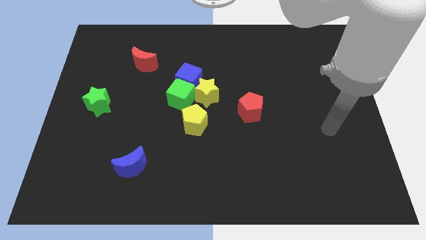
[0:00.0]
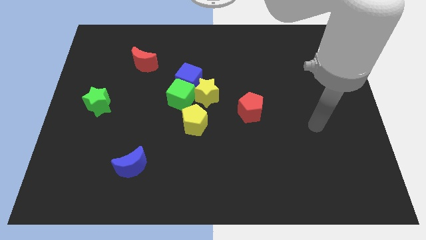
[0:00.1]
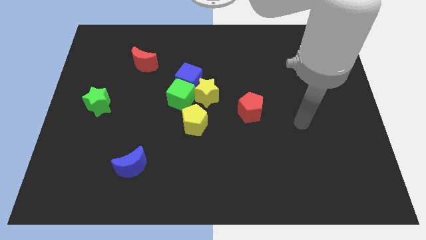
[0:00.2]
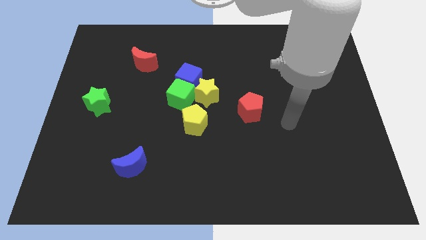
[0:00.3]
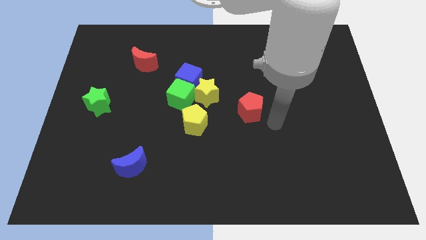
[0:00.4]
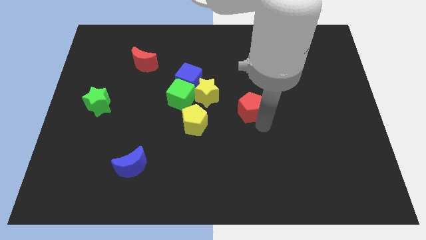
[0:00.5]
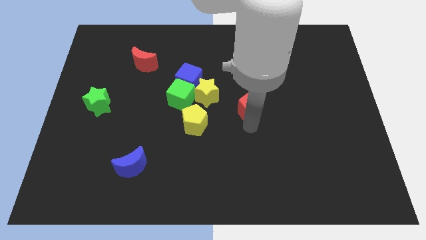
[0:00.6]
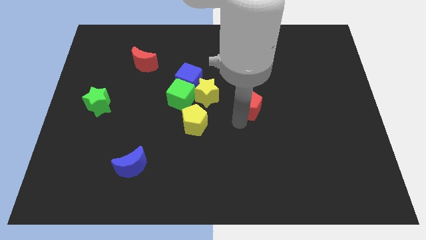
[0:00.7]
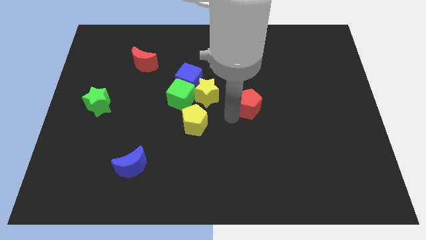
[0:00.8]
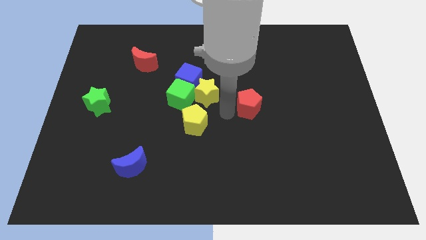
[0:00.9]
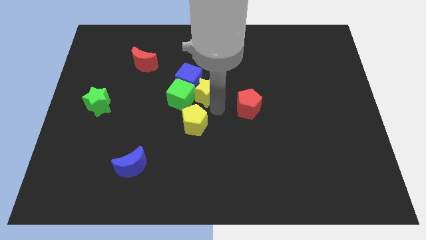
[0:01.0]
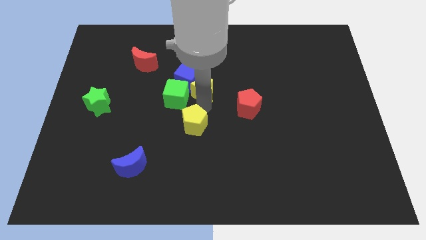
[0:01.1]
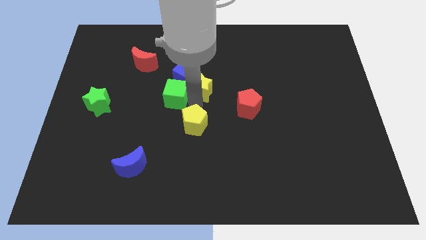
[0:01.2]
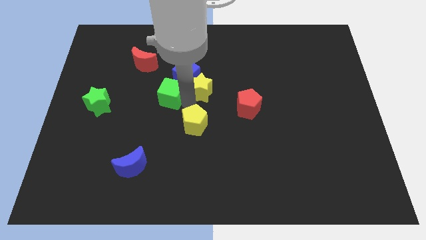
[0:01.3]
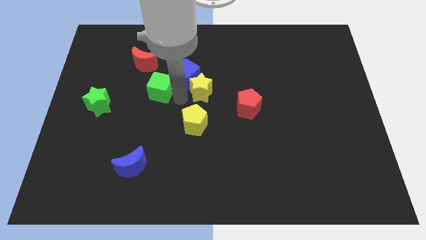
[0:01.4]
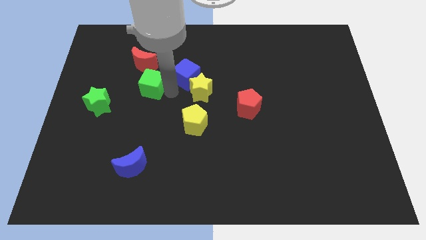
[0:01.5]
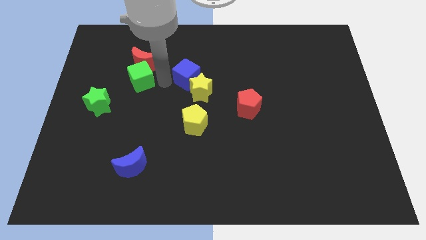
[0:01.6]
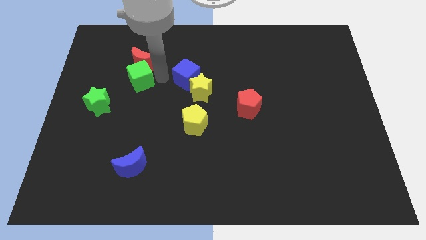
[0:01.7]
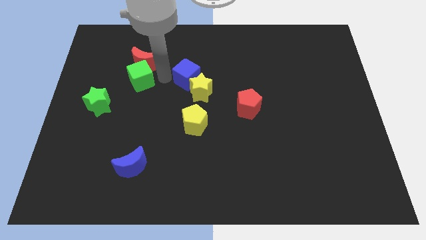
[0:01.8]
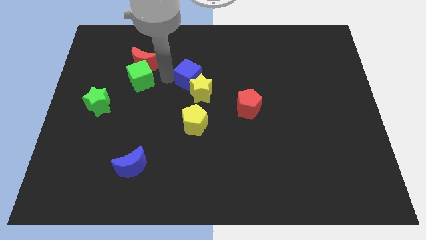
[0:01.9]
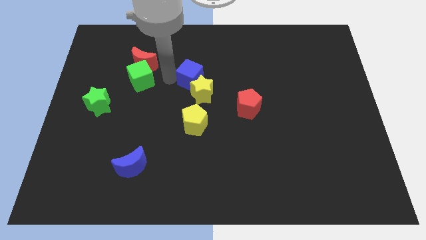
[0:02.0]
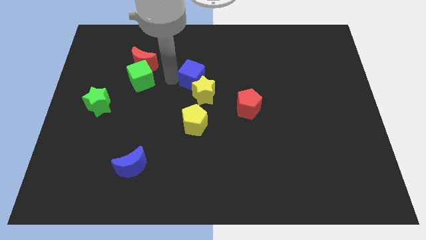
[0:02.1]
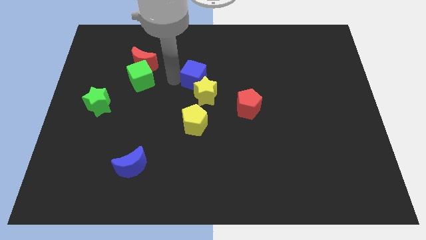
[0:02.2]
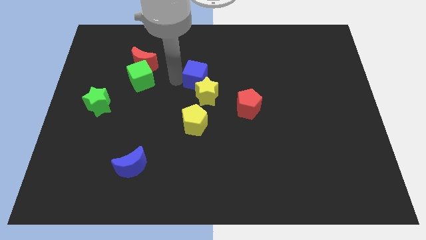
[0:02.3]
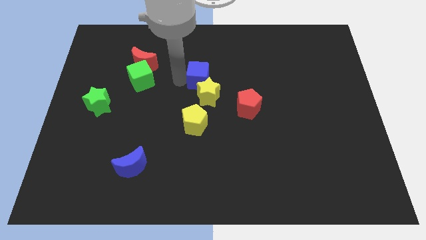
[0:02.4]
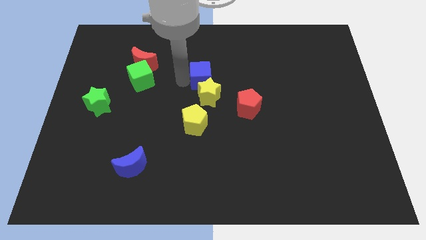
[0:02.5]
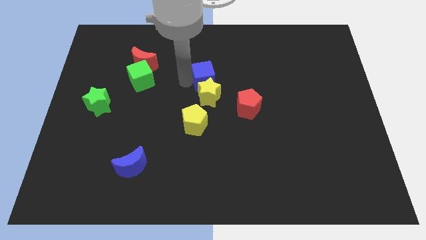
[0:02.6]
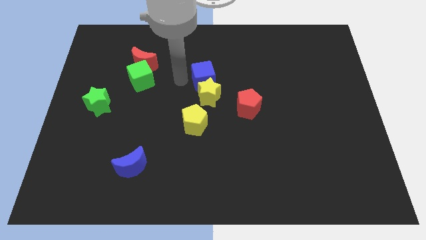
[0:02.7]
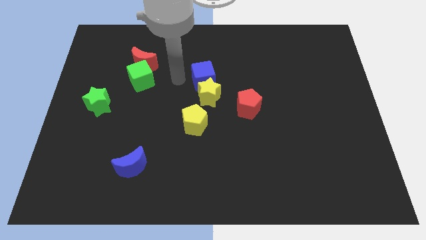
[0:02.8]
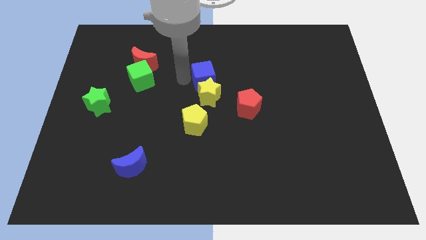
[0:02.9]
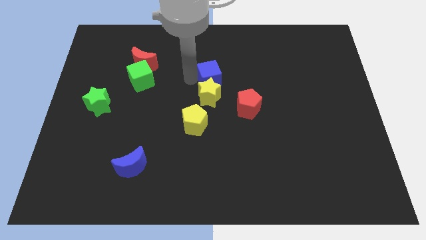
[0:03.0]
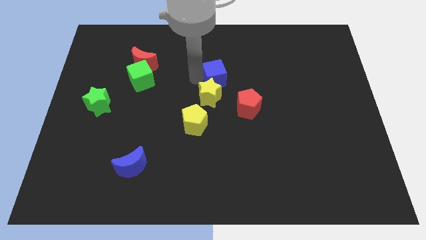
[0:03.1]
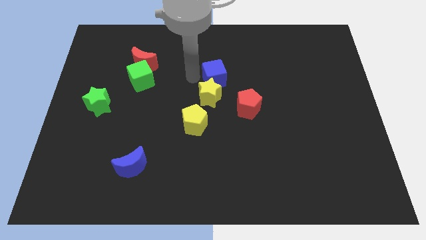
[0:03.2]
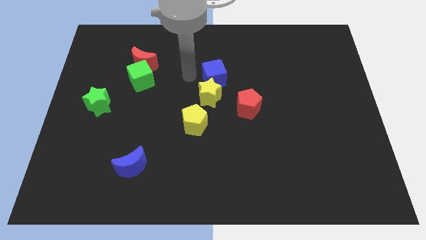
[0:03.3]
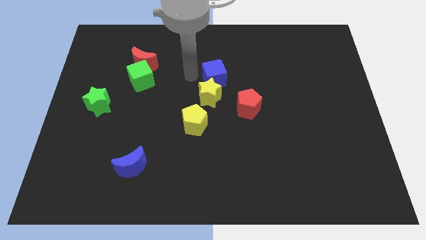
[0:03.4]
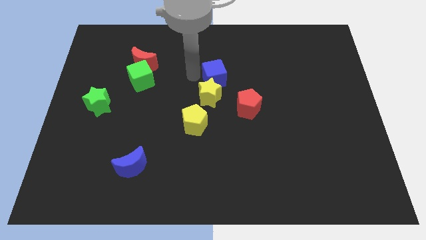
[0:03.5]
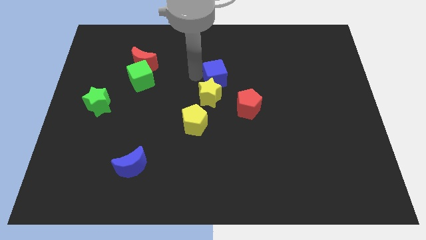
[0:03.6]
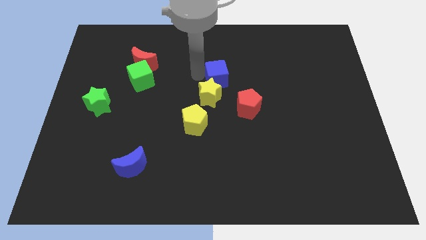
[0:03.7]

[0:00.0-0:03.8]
push the blue cube right a little bit

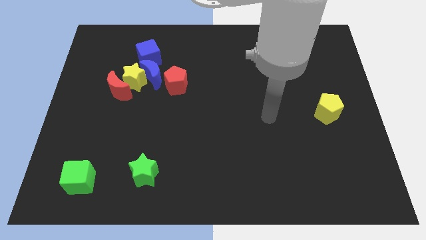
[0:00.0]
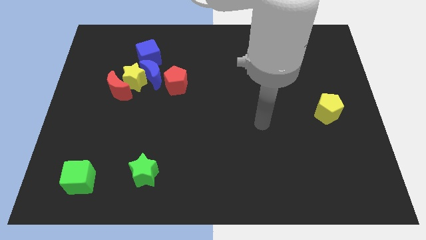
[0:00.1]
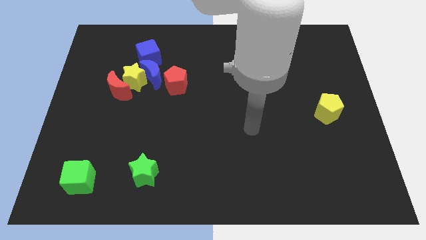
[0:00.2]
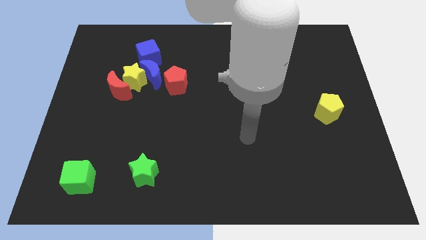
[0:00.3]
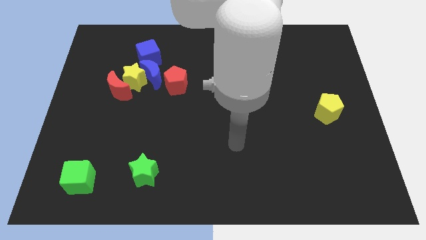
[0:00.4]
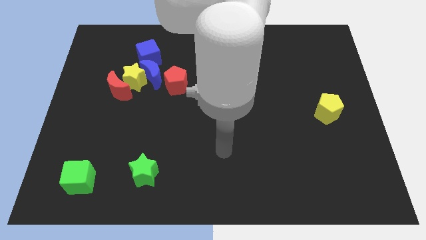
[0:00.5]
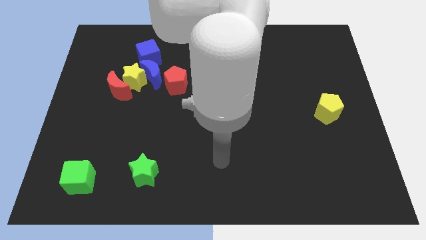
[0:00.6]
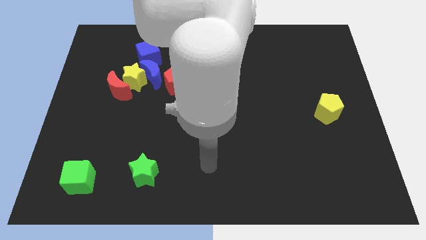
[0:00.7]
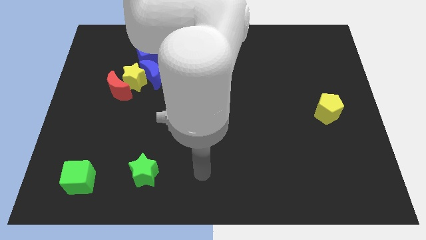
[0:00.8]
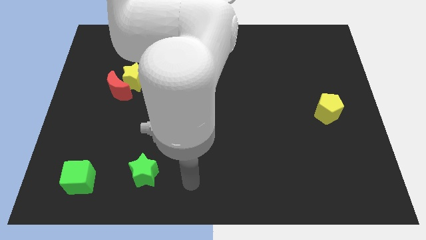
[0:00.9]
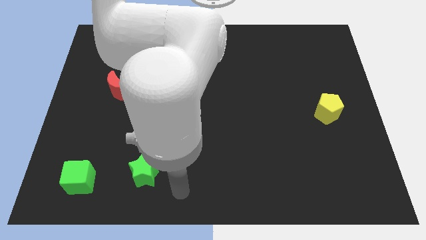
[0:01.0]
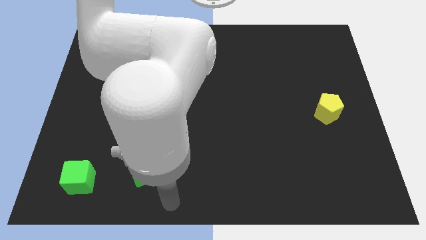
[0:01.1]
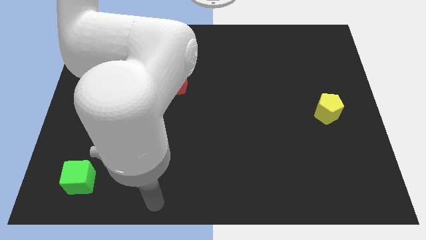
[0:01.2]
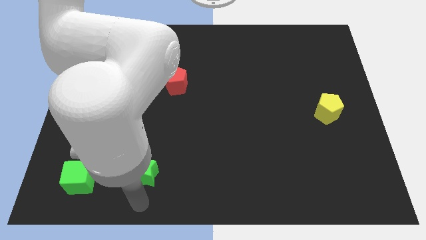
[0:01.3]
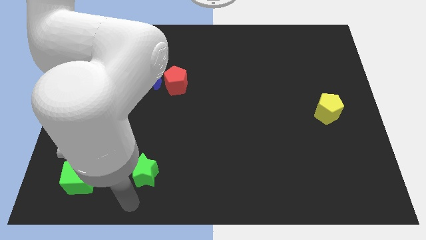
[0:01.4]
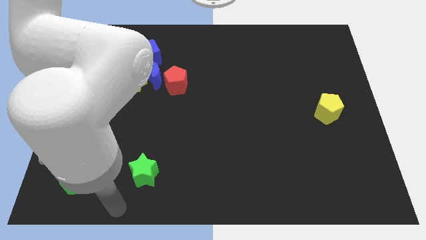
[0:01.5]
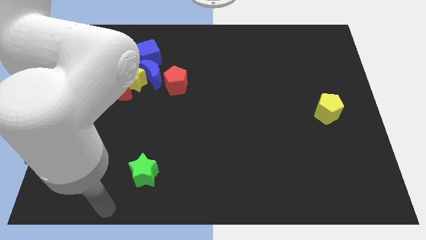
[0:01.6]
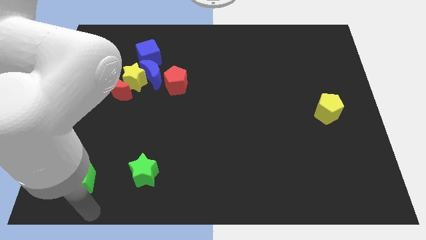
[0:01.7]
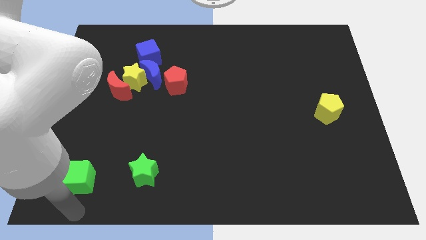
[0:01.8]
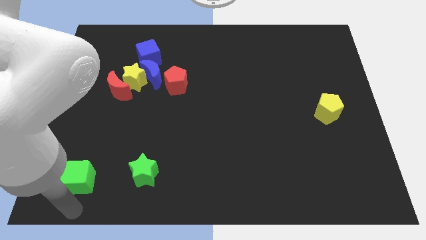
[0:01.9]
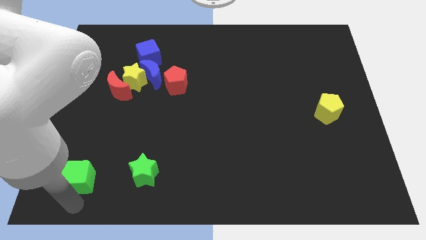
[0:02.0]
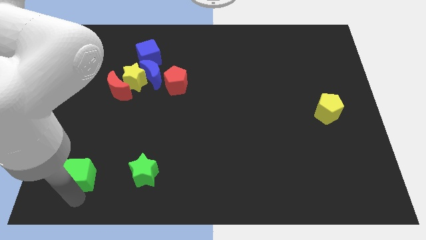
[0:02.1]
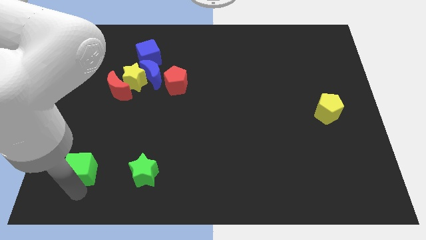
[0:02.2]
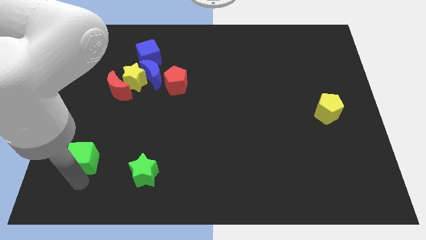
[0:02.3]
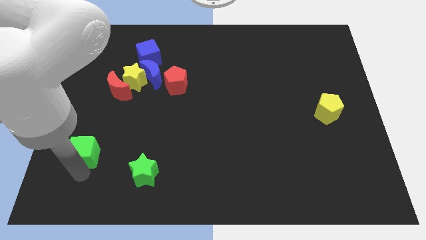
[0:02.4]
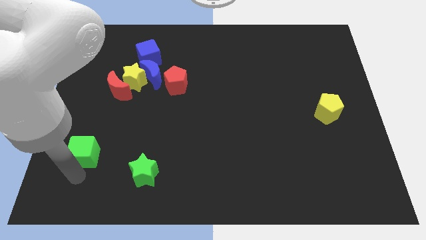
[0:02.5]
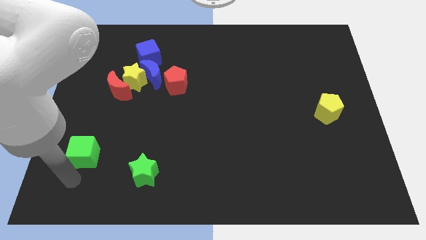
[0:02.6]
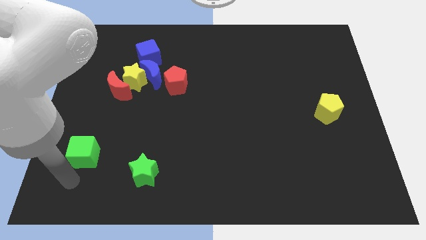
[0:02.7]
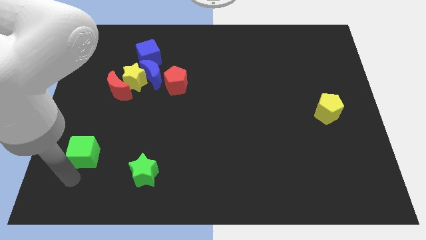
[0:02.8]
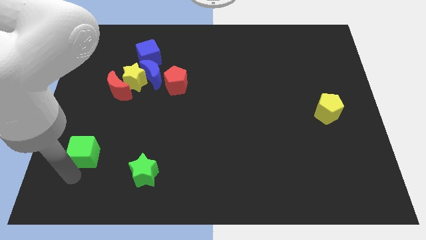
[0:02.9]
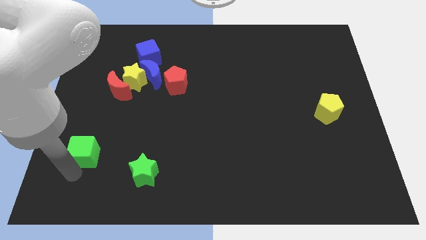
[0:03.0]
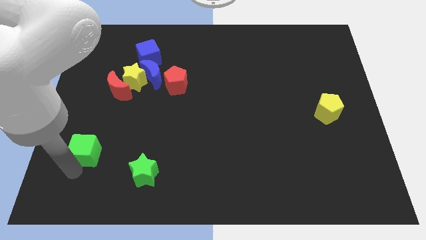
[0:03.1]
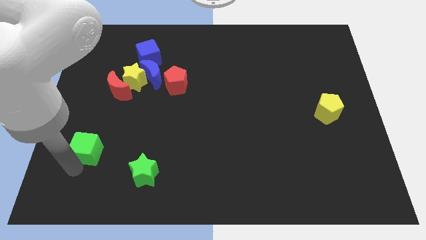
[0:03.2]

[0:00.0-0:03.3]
move the green cube up somewhat

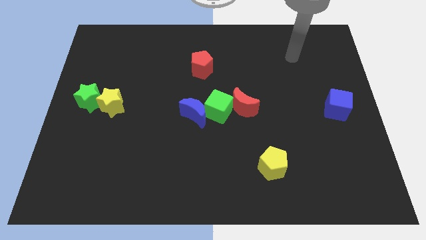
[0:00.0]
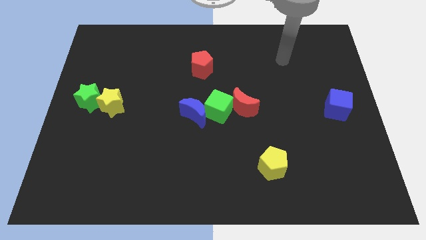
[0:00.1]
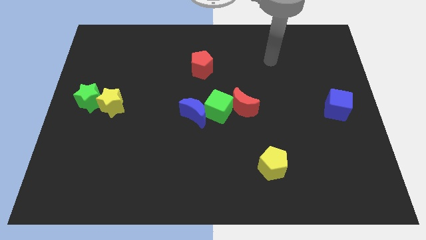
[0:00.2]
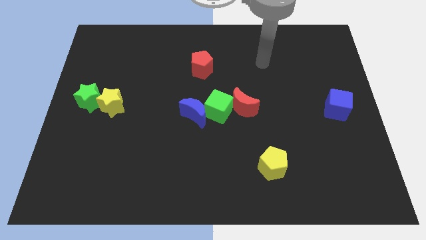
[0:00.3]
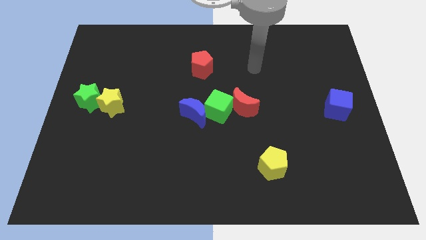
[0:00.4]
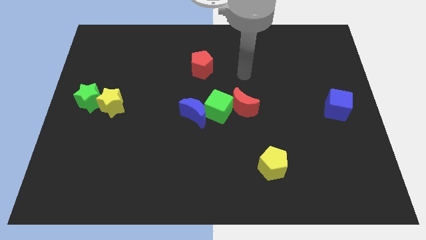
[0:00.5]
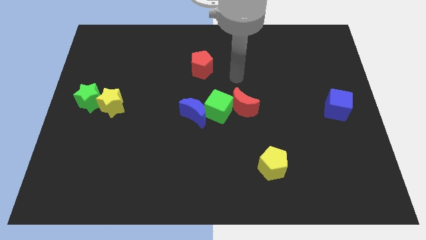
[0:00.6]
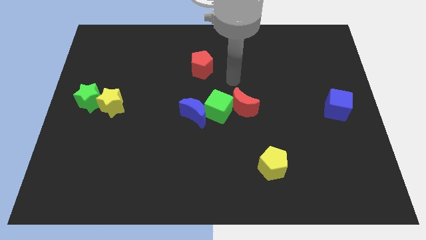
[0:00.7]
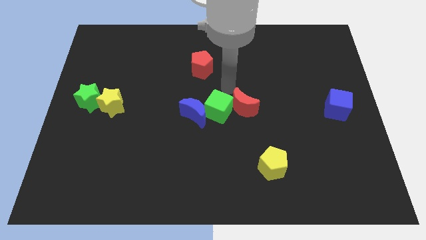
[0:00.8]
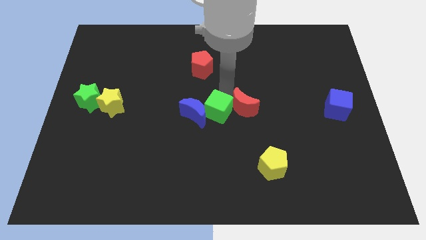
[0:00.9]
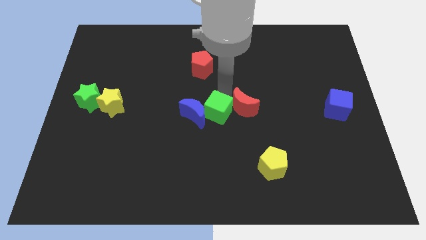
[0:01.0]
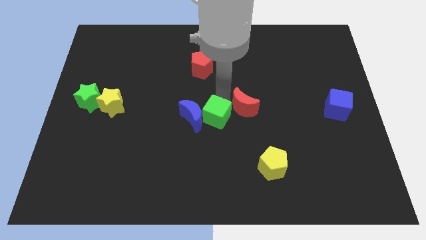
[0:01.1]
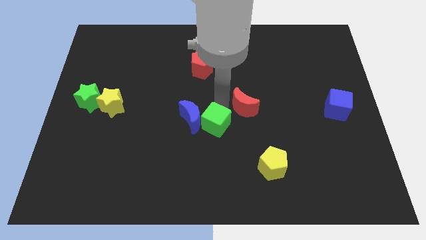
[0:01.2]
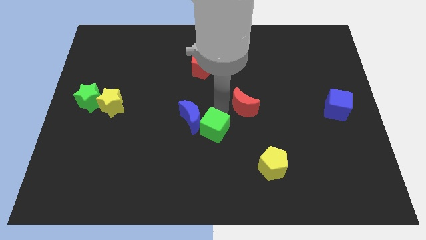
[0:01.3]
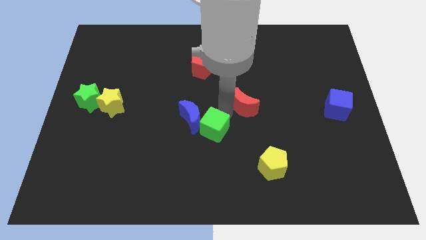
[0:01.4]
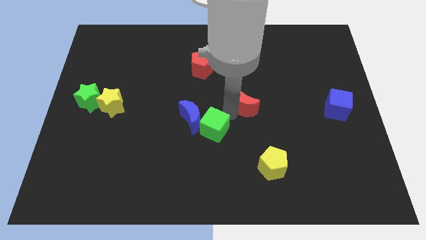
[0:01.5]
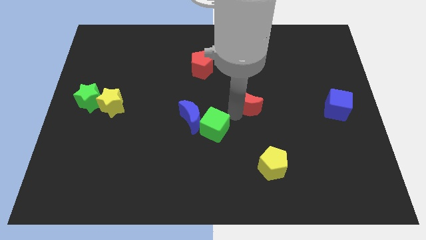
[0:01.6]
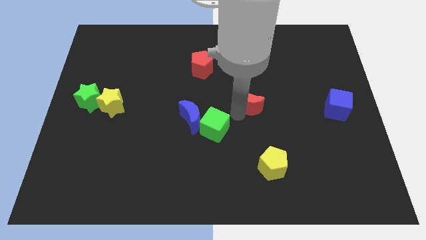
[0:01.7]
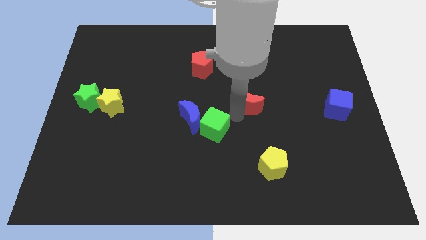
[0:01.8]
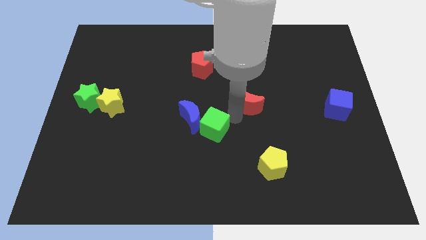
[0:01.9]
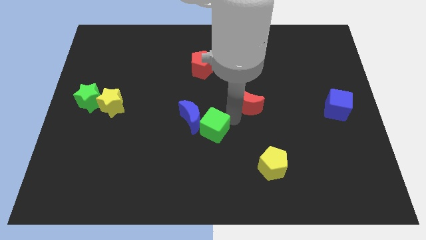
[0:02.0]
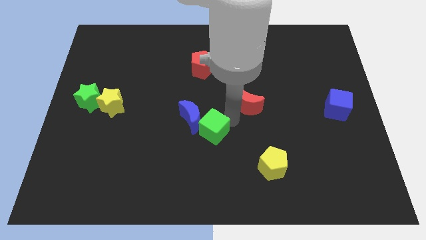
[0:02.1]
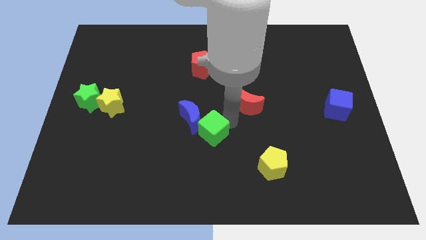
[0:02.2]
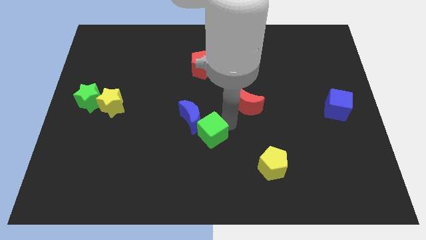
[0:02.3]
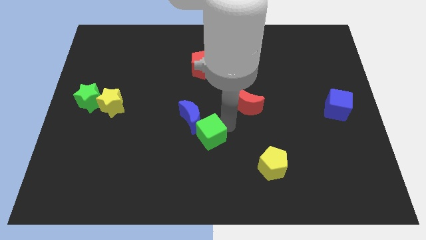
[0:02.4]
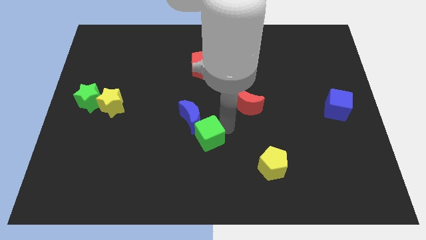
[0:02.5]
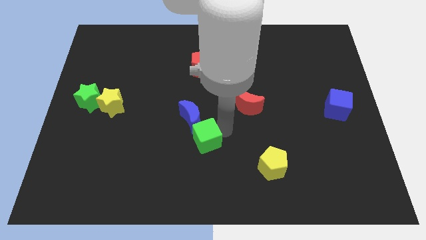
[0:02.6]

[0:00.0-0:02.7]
push the green cube downwards and to the left diagonally a bit
